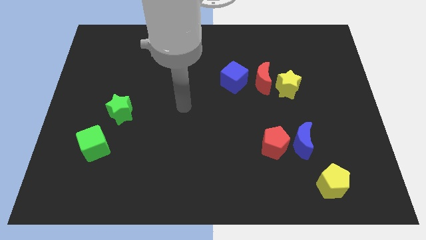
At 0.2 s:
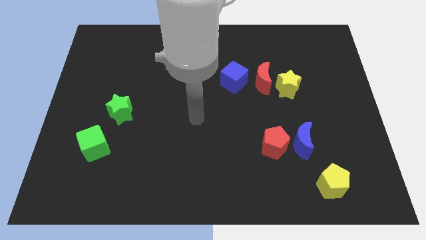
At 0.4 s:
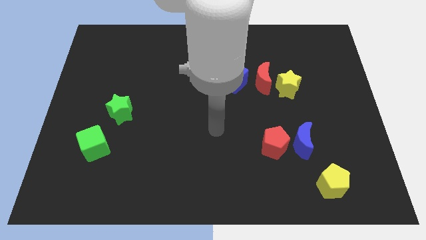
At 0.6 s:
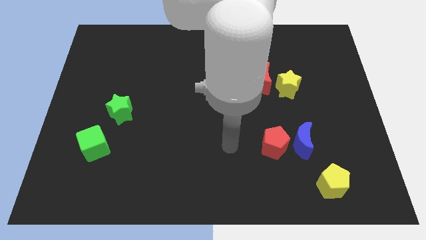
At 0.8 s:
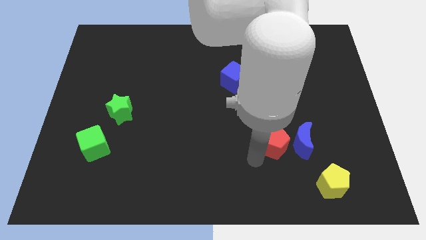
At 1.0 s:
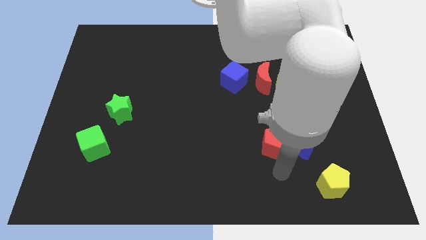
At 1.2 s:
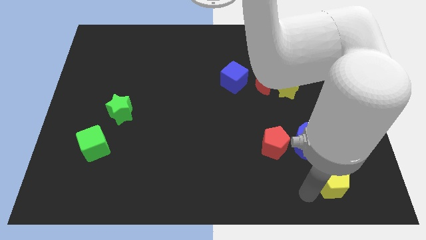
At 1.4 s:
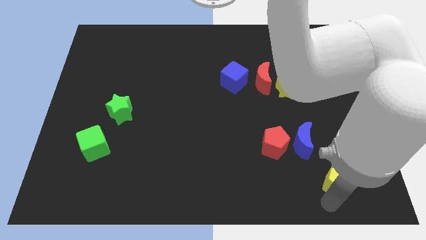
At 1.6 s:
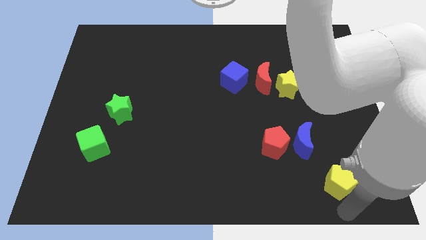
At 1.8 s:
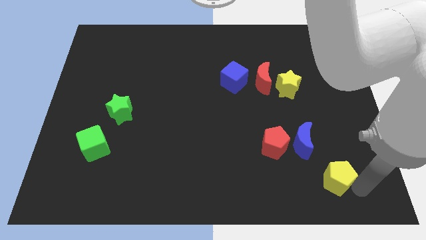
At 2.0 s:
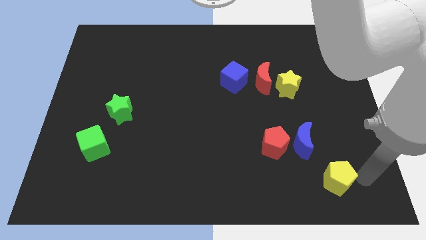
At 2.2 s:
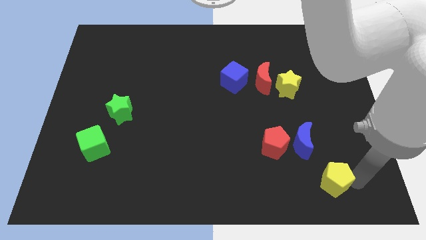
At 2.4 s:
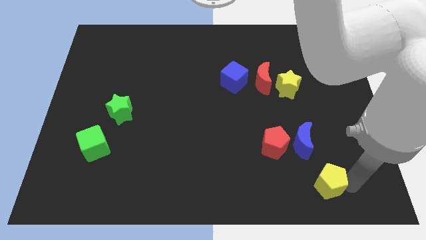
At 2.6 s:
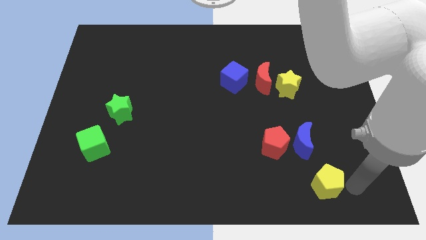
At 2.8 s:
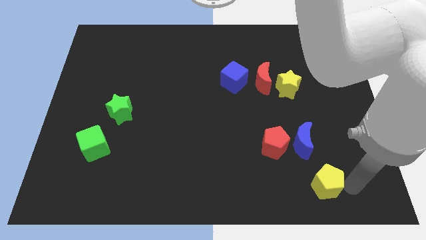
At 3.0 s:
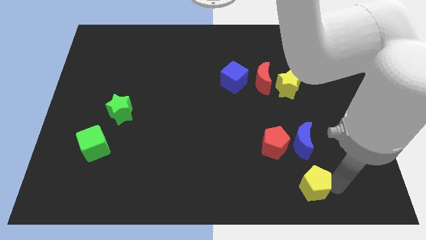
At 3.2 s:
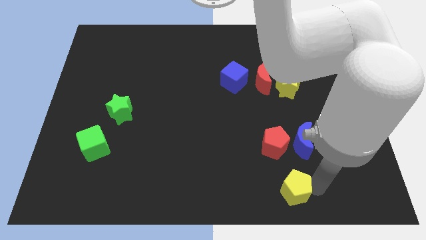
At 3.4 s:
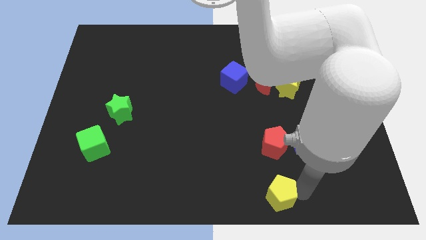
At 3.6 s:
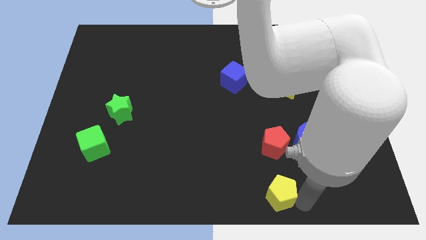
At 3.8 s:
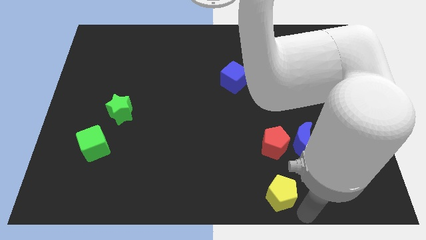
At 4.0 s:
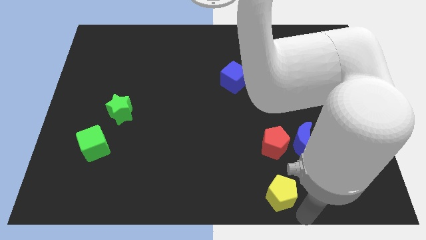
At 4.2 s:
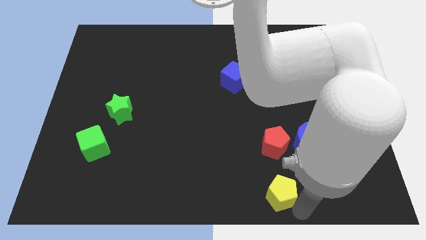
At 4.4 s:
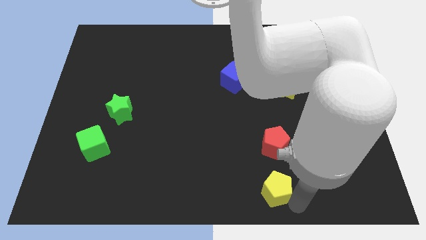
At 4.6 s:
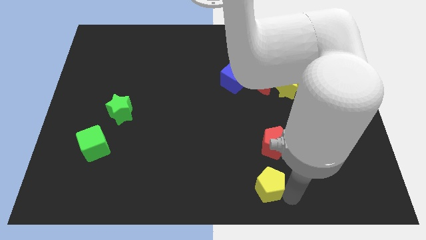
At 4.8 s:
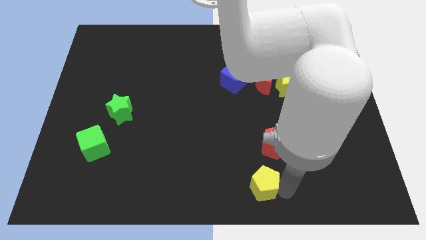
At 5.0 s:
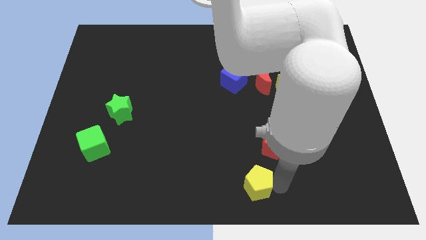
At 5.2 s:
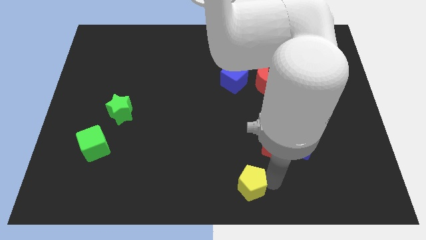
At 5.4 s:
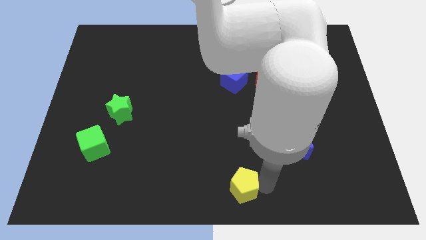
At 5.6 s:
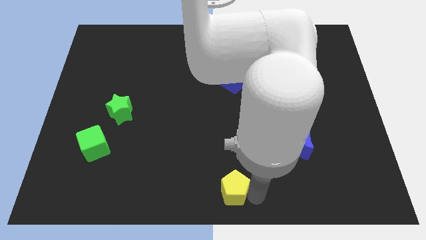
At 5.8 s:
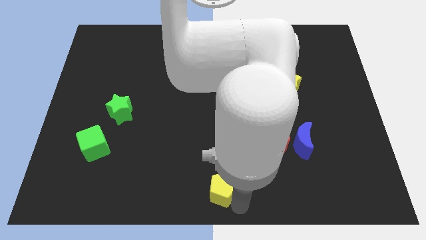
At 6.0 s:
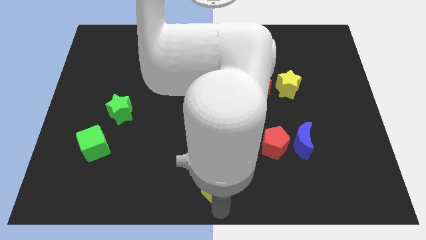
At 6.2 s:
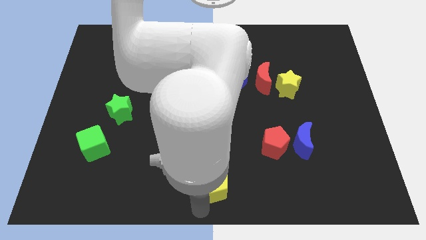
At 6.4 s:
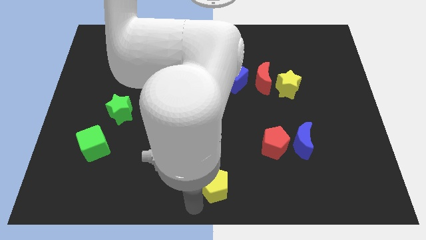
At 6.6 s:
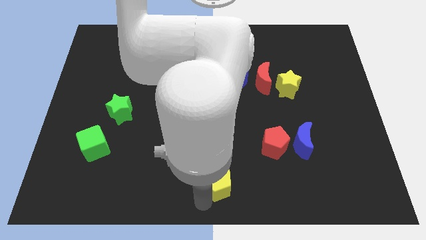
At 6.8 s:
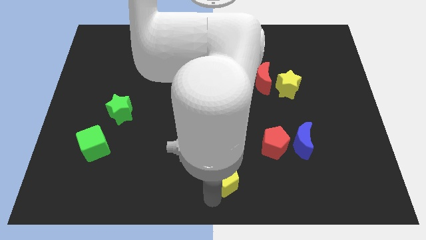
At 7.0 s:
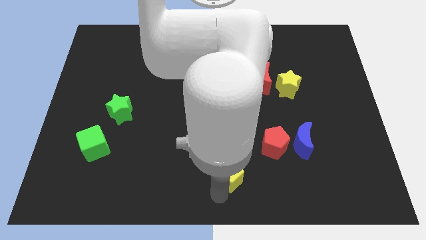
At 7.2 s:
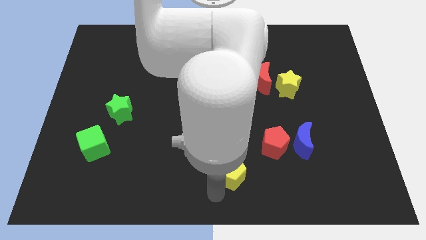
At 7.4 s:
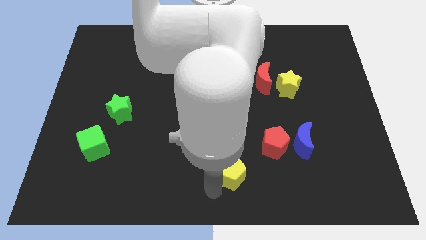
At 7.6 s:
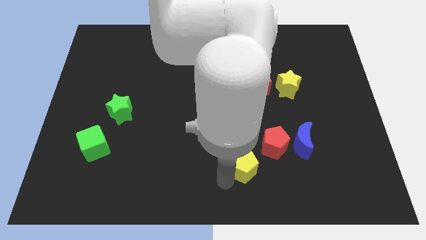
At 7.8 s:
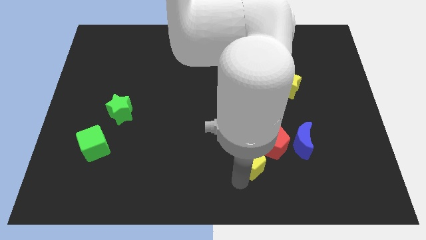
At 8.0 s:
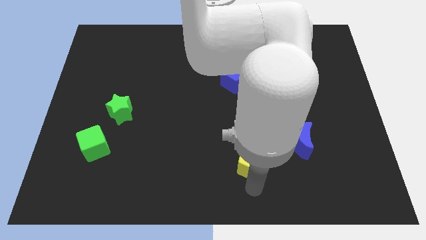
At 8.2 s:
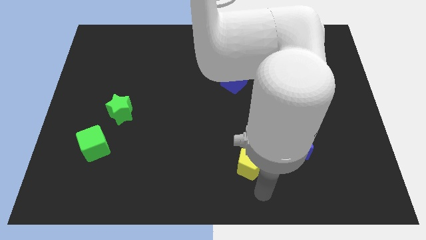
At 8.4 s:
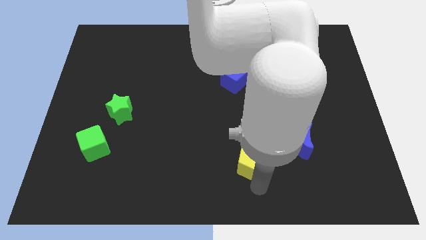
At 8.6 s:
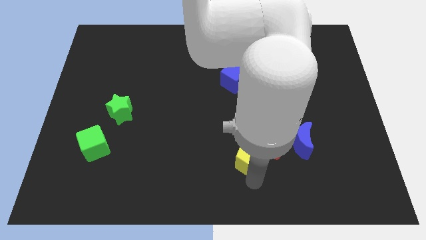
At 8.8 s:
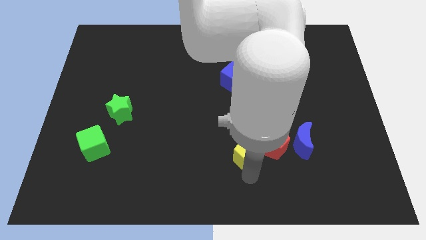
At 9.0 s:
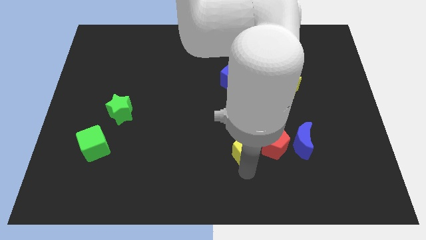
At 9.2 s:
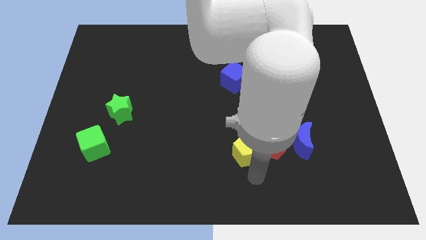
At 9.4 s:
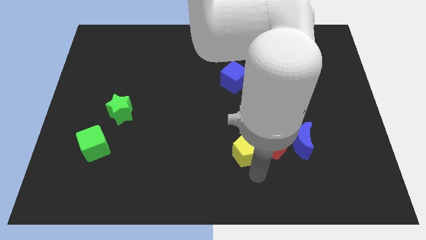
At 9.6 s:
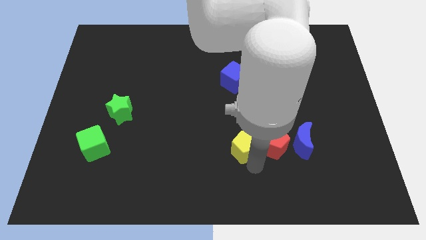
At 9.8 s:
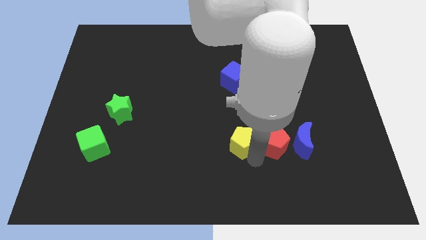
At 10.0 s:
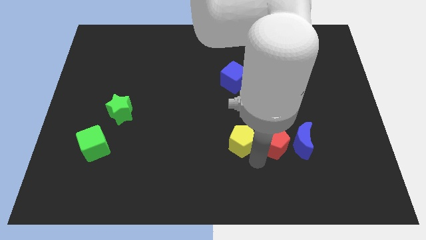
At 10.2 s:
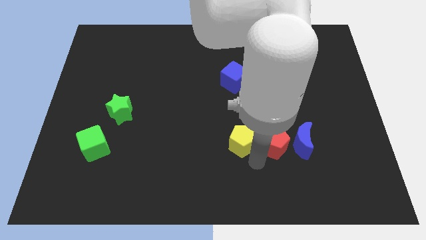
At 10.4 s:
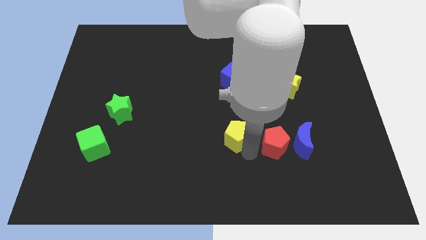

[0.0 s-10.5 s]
push the yellow pentagon to the center of the board

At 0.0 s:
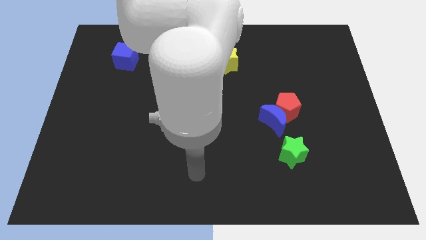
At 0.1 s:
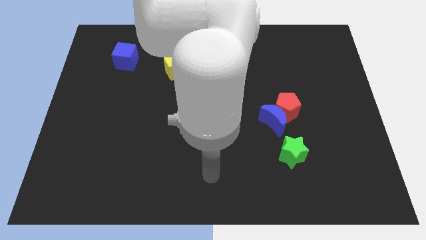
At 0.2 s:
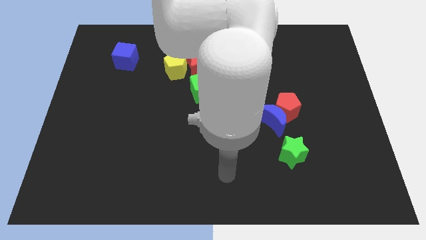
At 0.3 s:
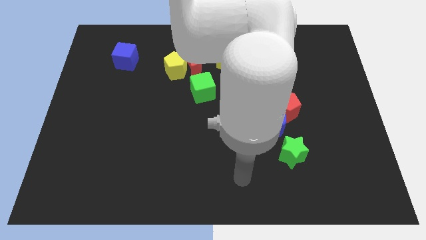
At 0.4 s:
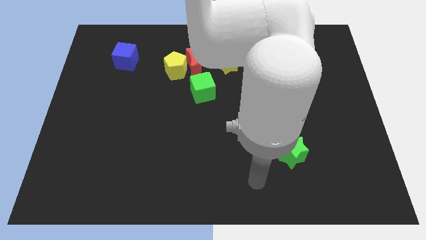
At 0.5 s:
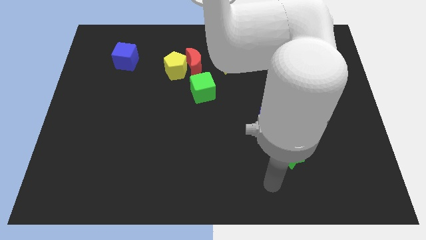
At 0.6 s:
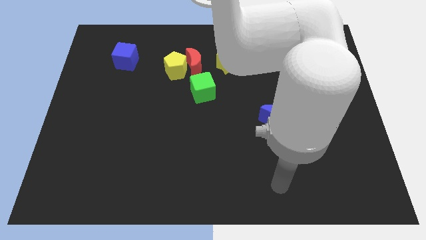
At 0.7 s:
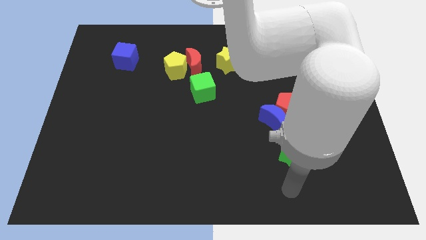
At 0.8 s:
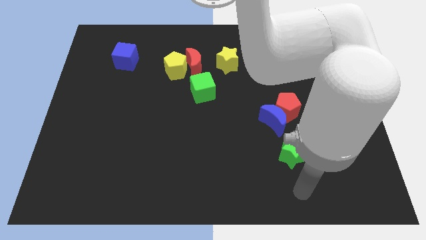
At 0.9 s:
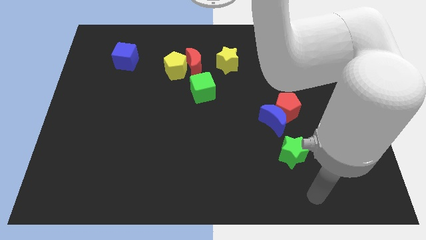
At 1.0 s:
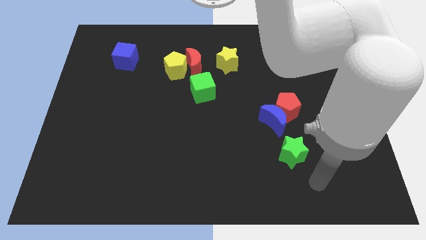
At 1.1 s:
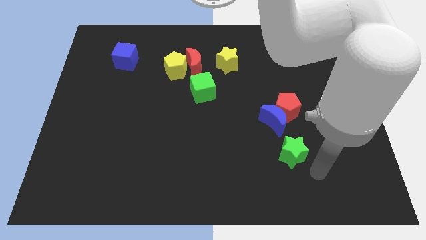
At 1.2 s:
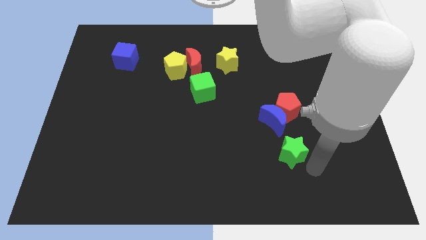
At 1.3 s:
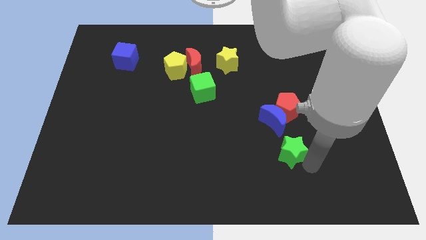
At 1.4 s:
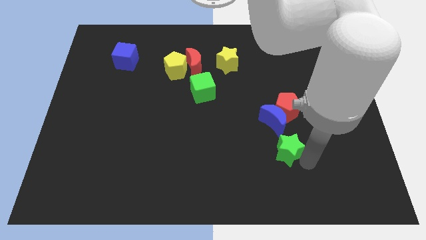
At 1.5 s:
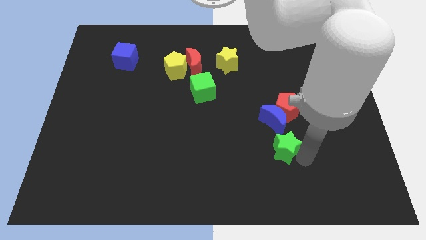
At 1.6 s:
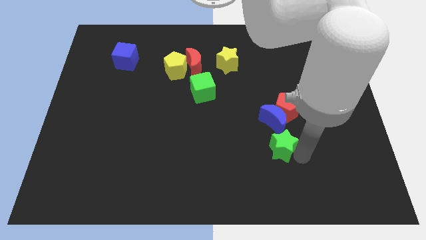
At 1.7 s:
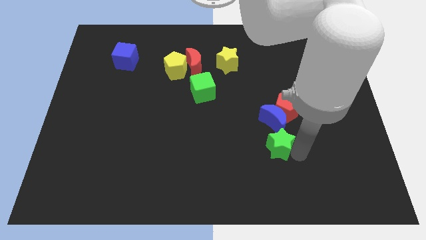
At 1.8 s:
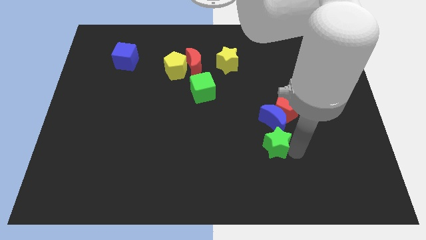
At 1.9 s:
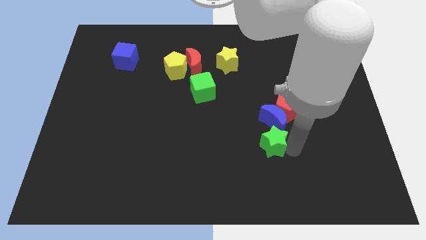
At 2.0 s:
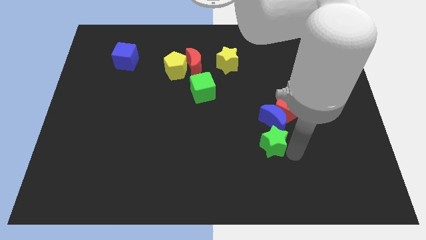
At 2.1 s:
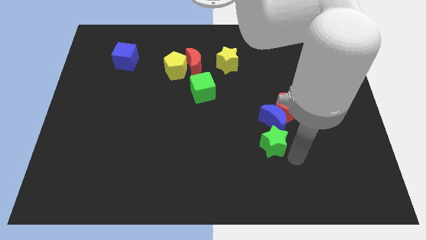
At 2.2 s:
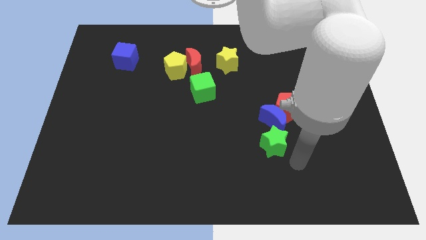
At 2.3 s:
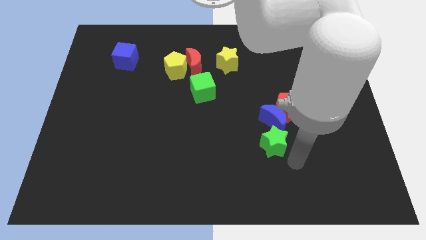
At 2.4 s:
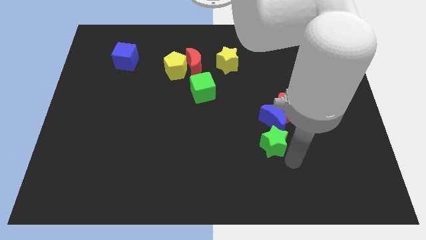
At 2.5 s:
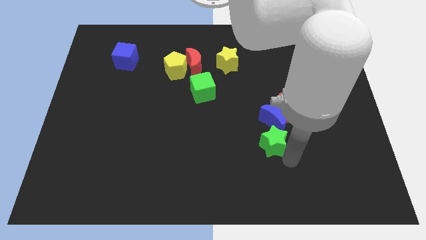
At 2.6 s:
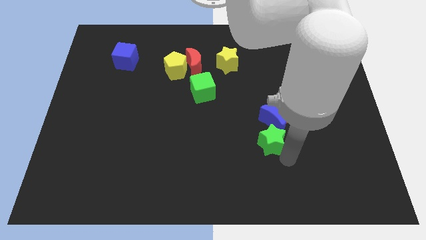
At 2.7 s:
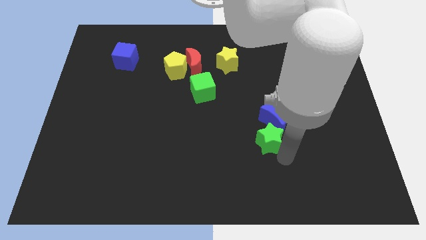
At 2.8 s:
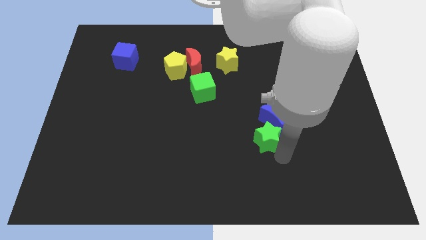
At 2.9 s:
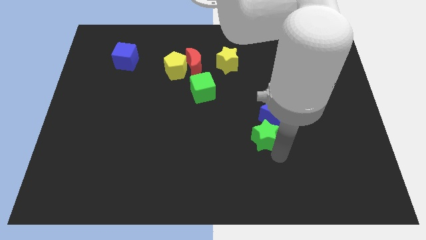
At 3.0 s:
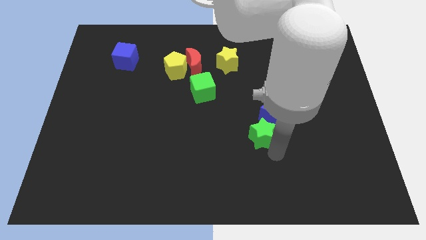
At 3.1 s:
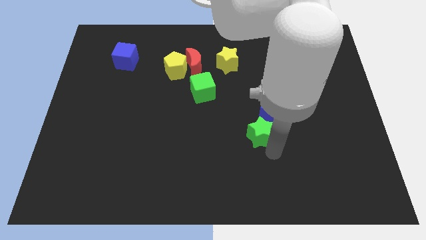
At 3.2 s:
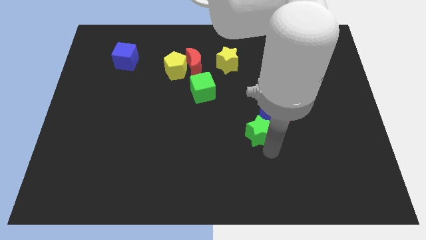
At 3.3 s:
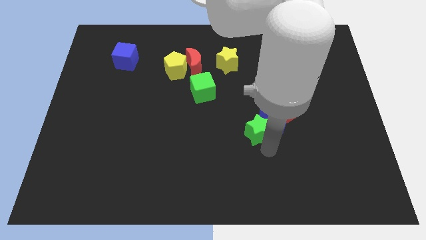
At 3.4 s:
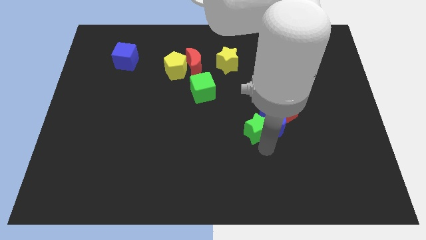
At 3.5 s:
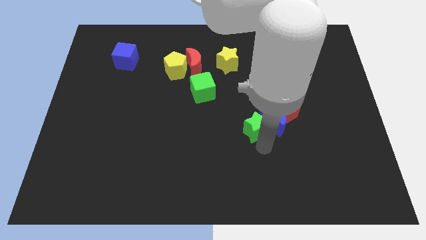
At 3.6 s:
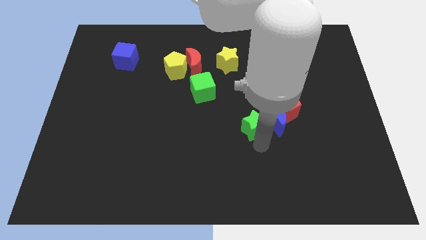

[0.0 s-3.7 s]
slide the green star to the center
